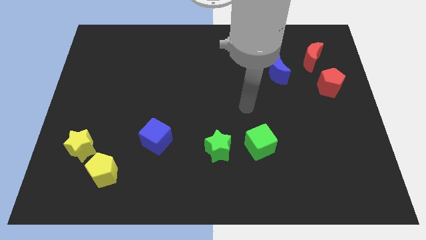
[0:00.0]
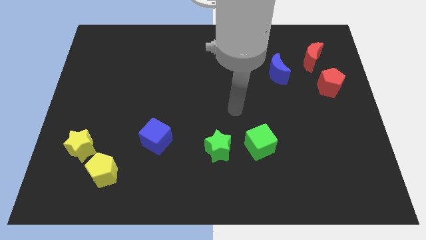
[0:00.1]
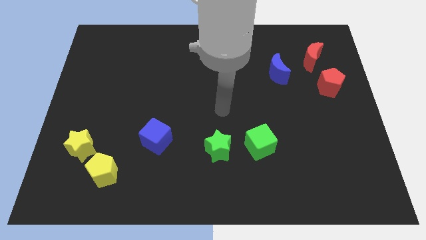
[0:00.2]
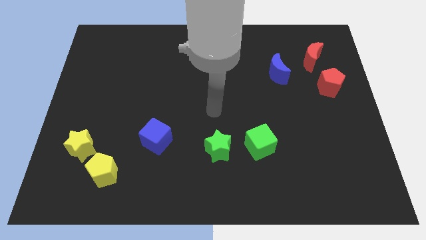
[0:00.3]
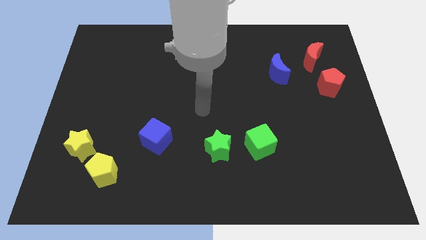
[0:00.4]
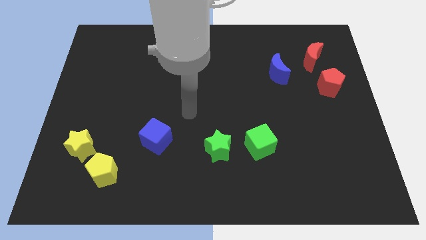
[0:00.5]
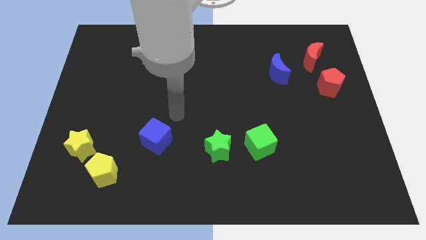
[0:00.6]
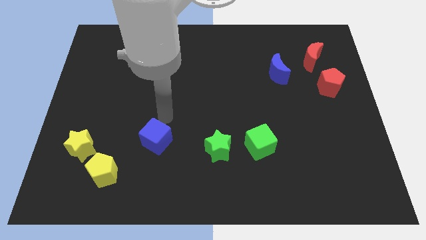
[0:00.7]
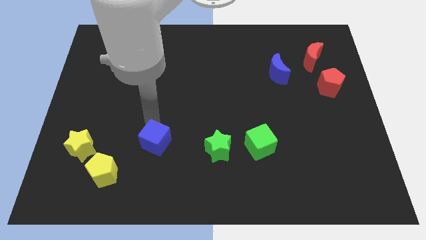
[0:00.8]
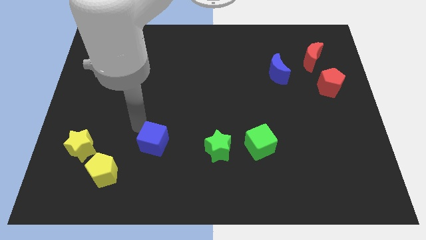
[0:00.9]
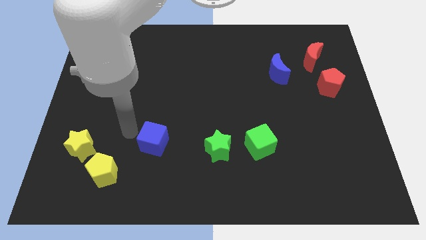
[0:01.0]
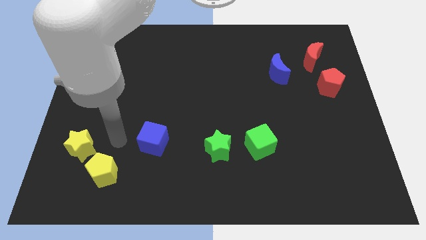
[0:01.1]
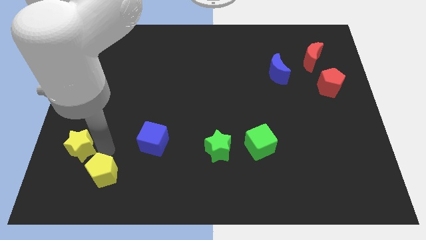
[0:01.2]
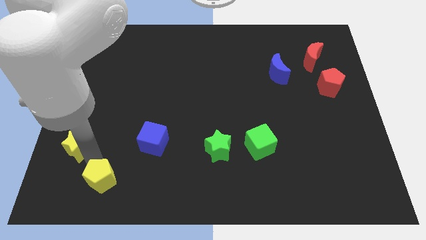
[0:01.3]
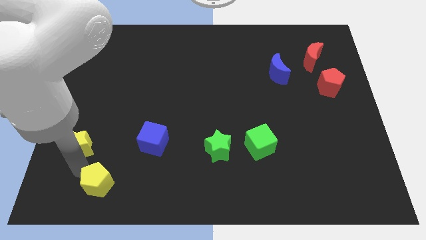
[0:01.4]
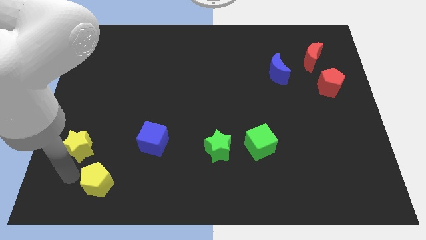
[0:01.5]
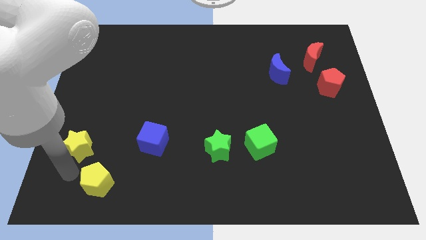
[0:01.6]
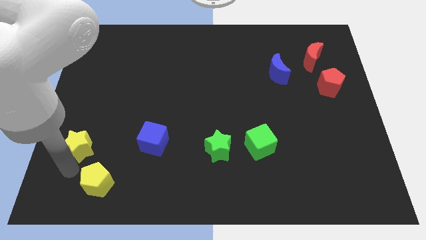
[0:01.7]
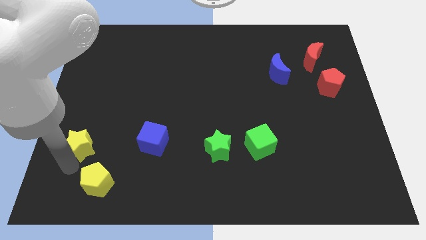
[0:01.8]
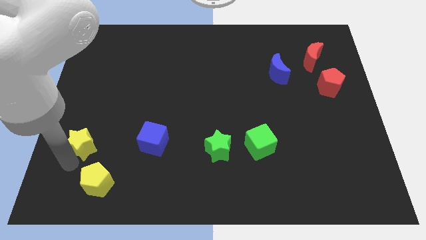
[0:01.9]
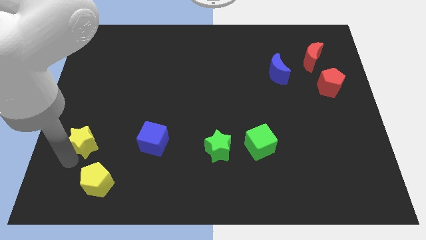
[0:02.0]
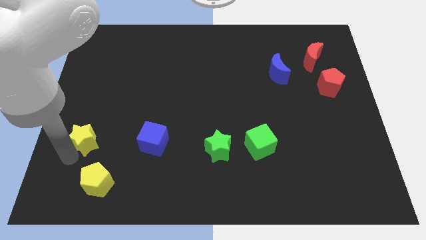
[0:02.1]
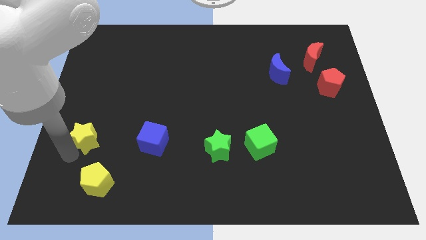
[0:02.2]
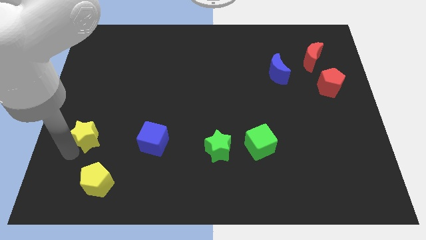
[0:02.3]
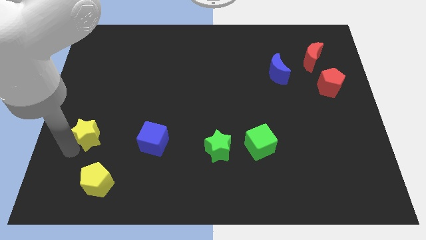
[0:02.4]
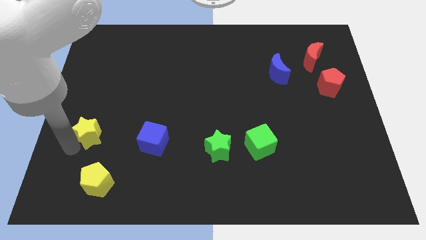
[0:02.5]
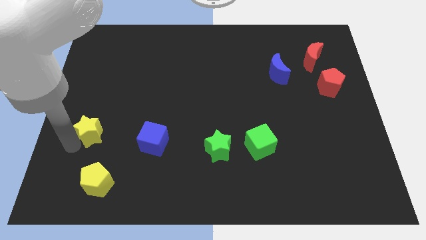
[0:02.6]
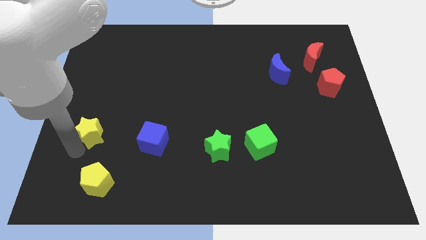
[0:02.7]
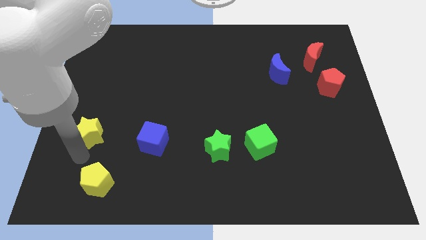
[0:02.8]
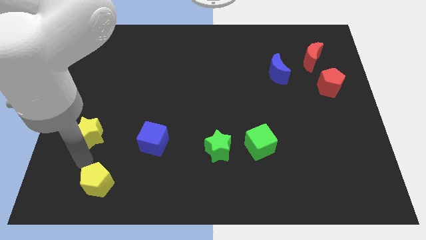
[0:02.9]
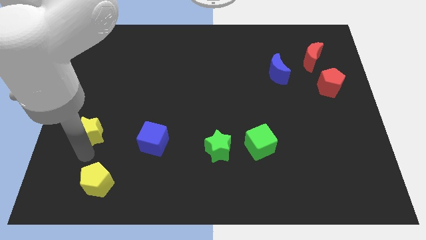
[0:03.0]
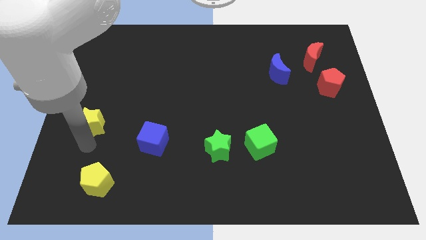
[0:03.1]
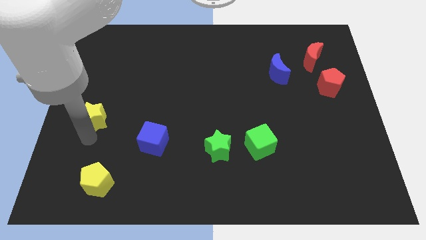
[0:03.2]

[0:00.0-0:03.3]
slightly push the yellow star upwards

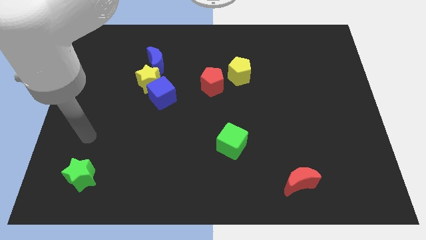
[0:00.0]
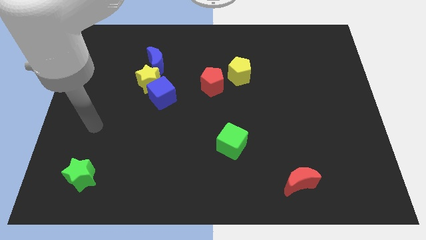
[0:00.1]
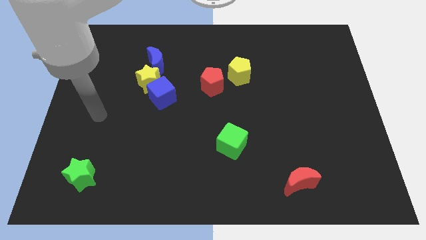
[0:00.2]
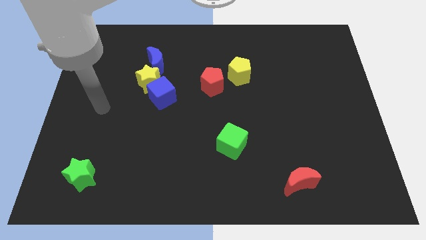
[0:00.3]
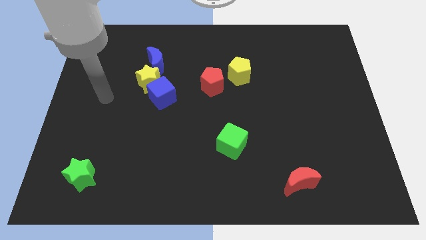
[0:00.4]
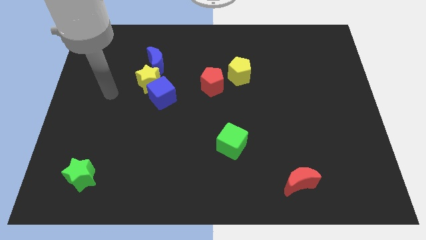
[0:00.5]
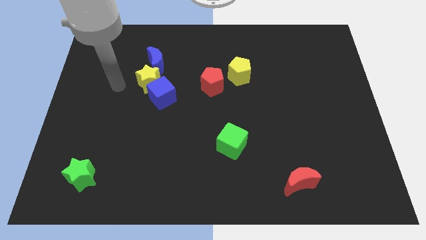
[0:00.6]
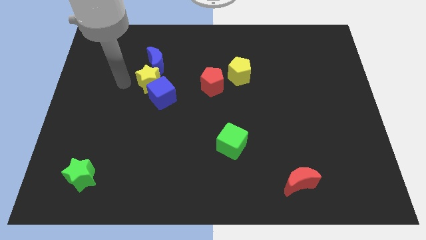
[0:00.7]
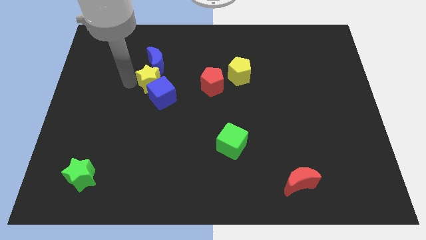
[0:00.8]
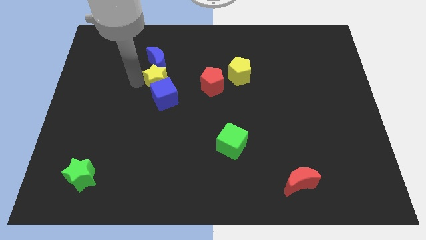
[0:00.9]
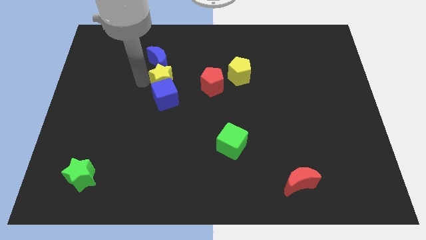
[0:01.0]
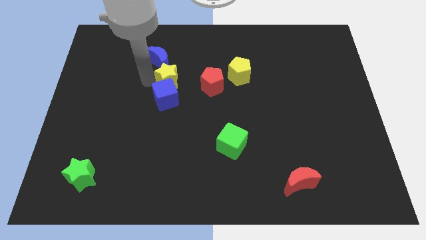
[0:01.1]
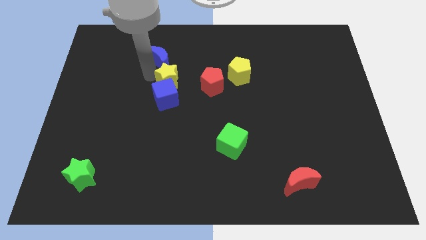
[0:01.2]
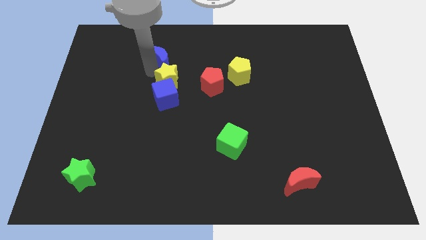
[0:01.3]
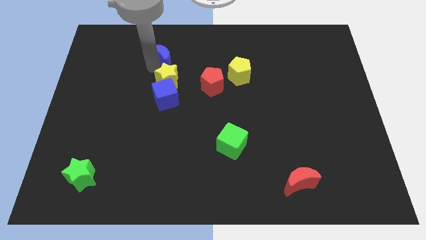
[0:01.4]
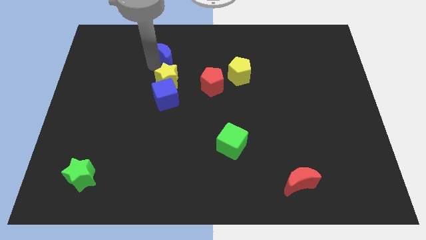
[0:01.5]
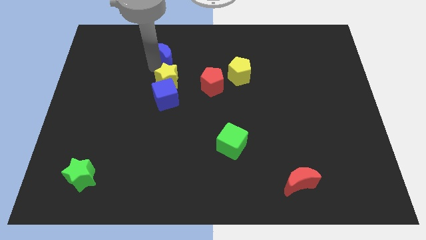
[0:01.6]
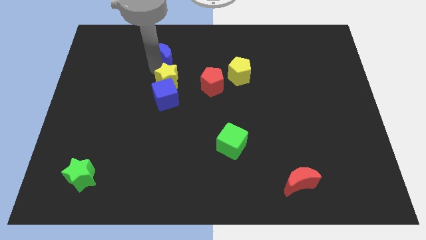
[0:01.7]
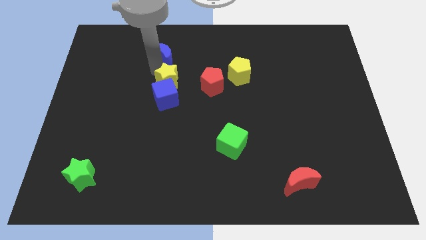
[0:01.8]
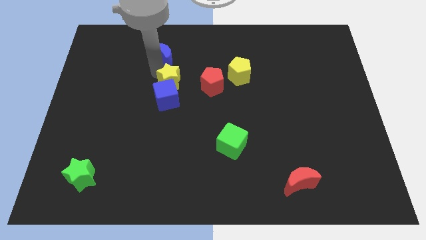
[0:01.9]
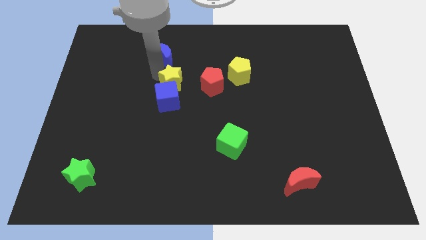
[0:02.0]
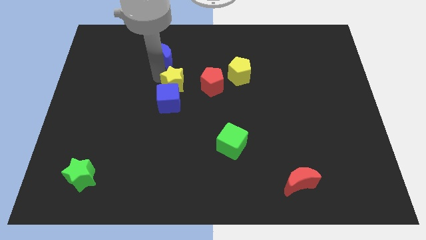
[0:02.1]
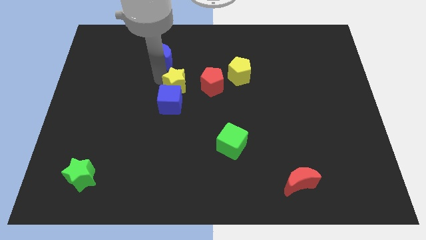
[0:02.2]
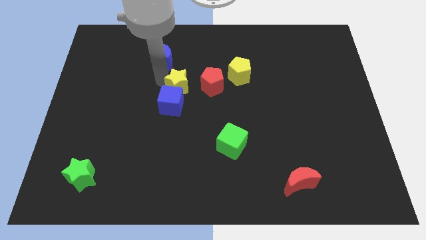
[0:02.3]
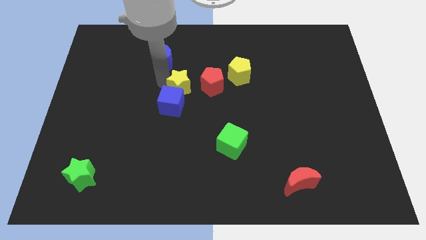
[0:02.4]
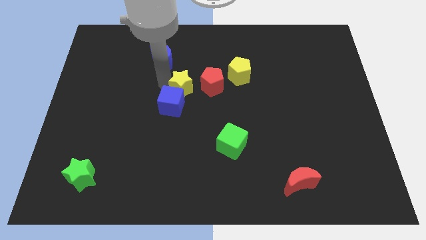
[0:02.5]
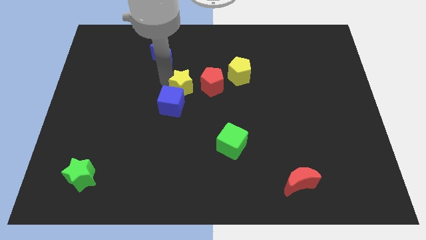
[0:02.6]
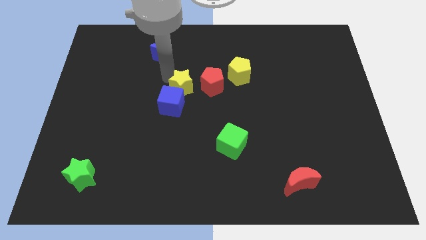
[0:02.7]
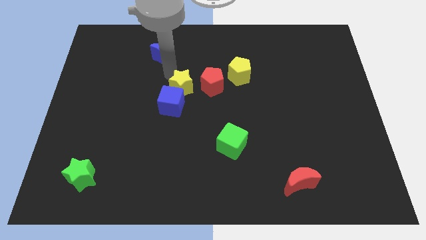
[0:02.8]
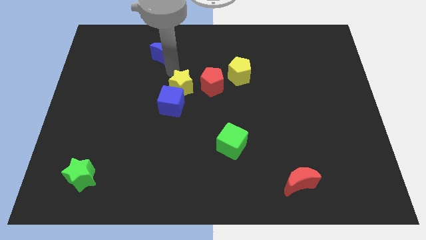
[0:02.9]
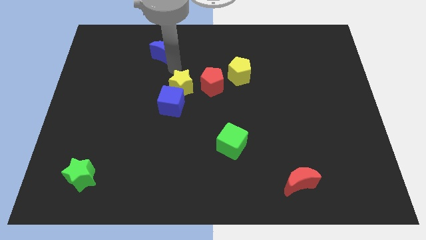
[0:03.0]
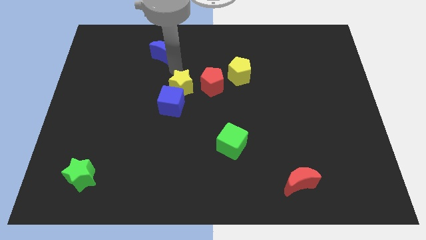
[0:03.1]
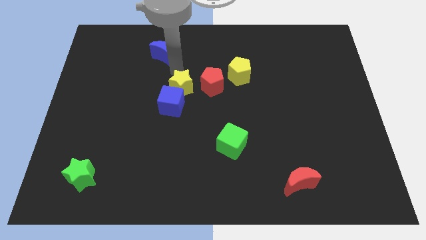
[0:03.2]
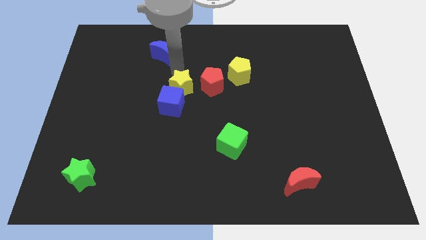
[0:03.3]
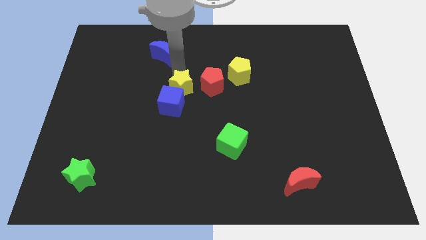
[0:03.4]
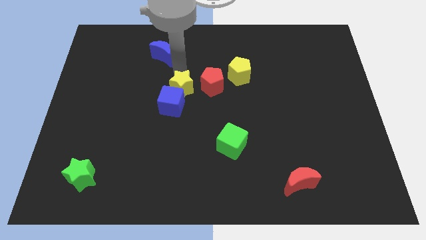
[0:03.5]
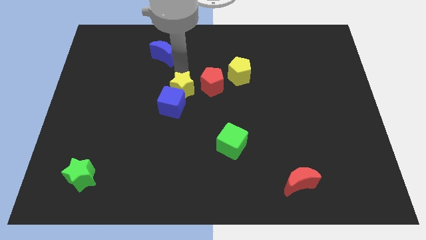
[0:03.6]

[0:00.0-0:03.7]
push the yellow star somewhat downwards and then right

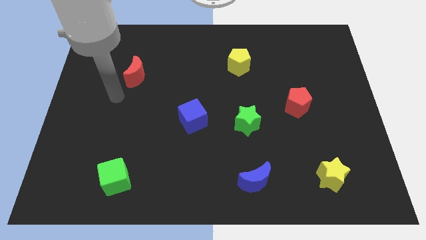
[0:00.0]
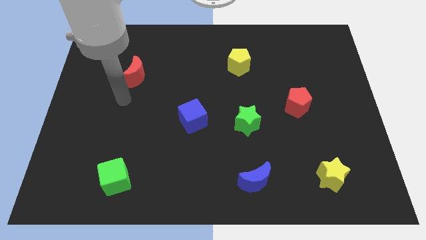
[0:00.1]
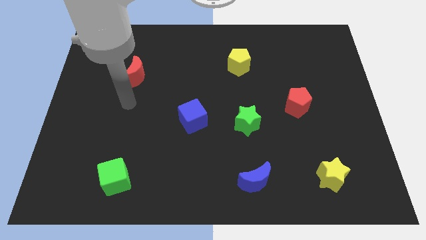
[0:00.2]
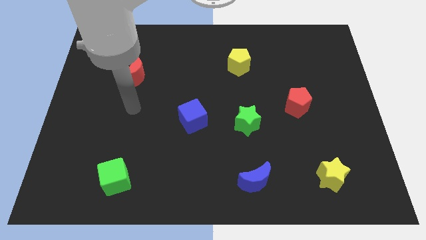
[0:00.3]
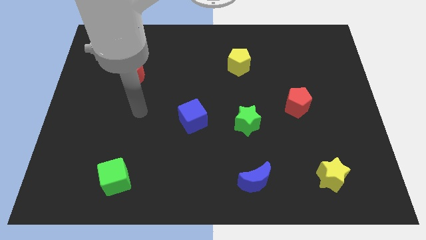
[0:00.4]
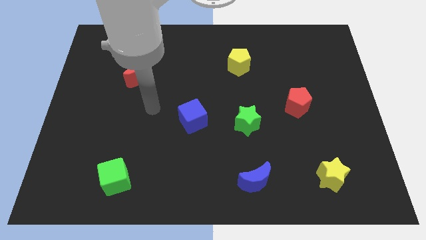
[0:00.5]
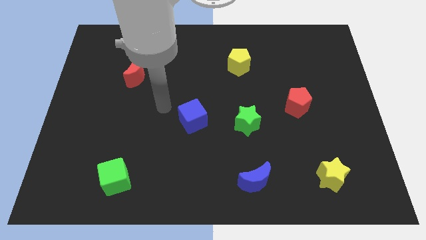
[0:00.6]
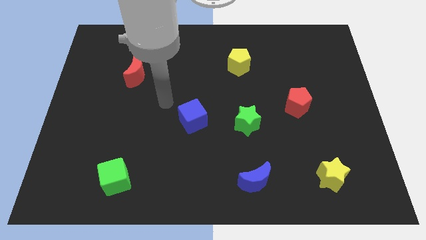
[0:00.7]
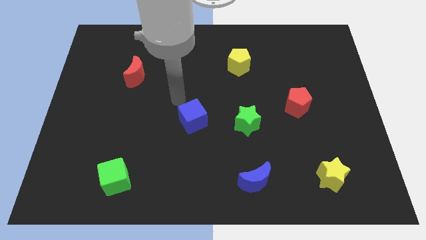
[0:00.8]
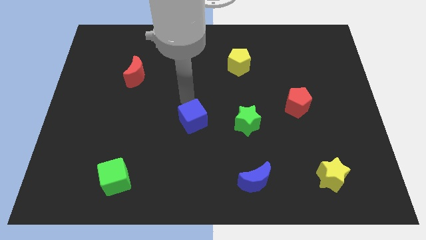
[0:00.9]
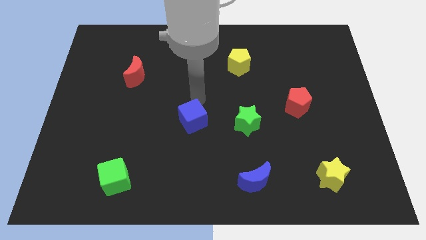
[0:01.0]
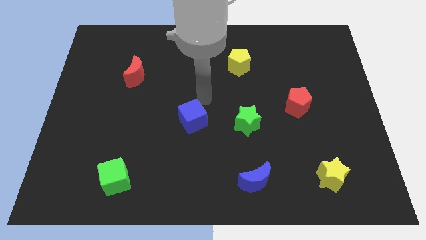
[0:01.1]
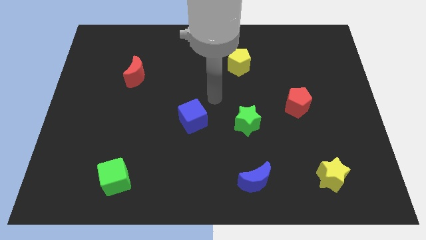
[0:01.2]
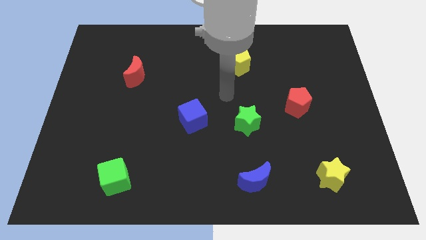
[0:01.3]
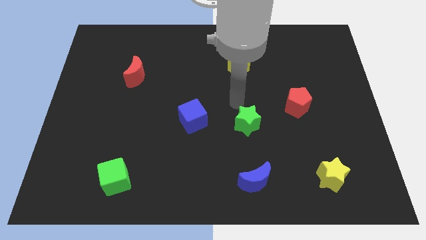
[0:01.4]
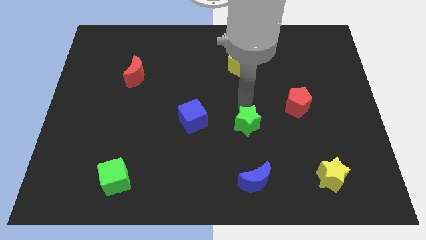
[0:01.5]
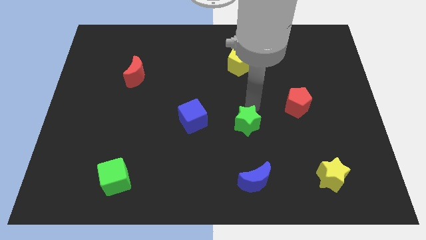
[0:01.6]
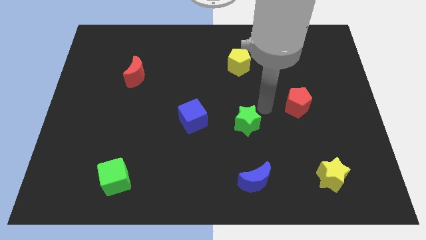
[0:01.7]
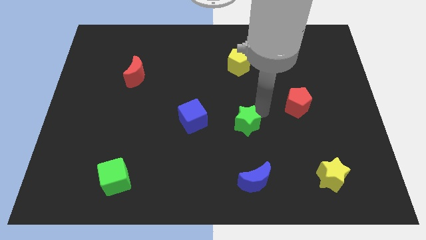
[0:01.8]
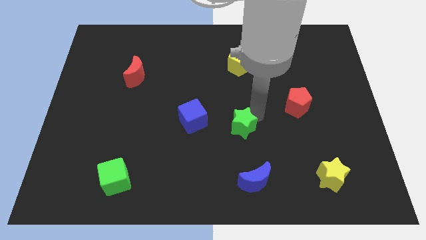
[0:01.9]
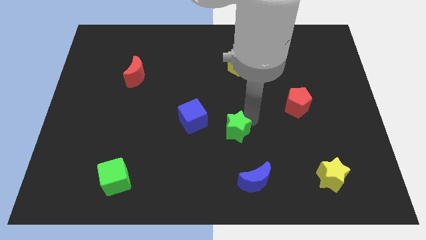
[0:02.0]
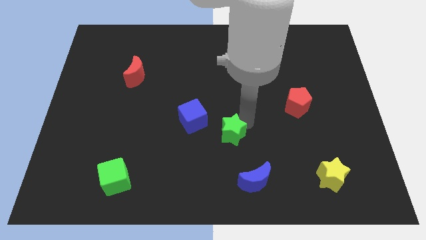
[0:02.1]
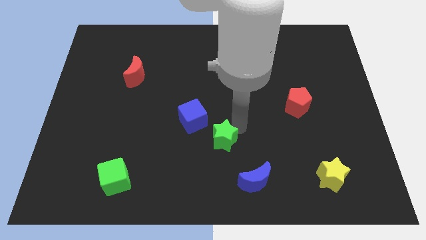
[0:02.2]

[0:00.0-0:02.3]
push the green star down and then to the left a little
